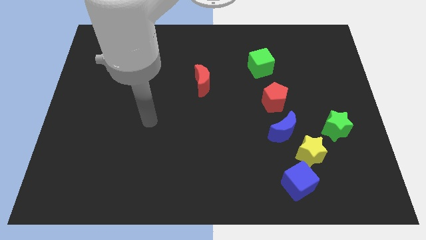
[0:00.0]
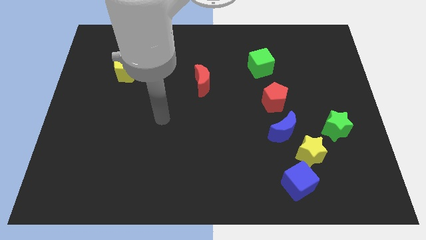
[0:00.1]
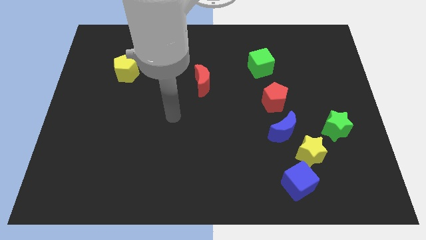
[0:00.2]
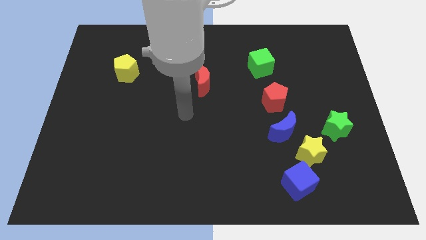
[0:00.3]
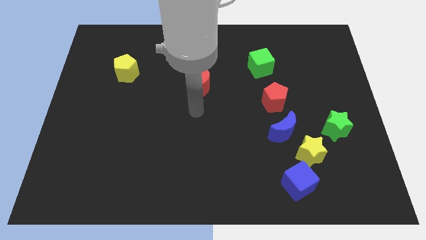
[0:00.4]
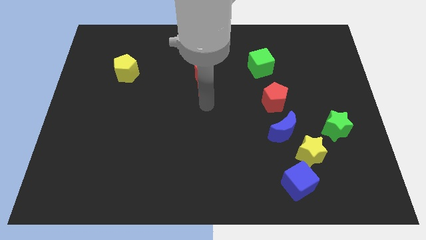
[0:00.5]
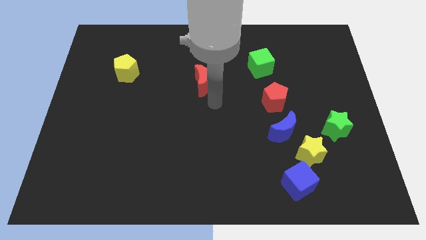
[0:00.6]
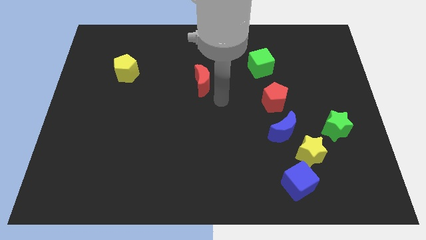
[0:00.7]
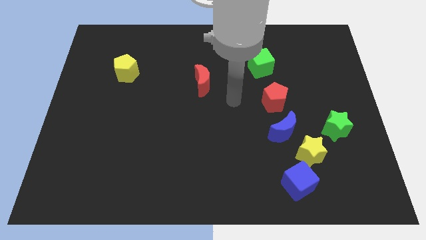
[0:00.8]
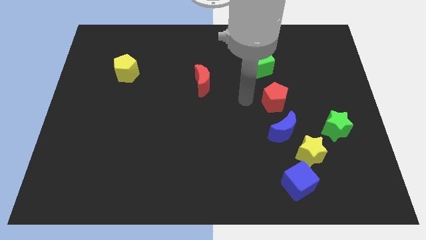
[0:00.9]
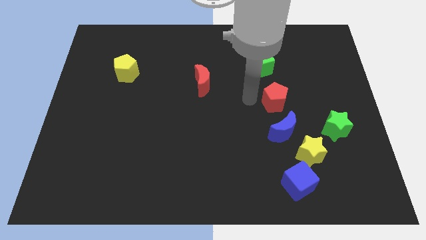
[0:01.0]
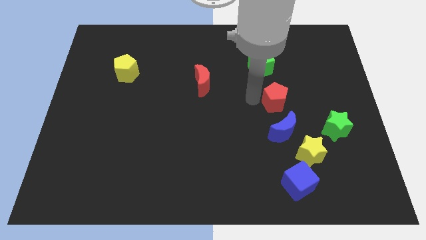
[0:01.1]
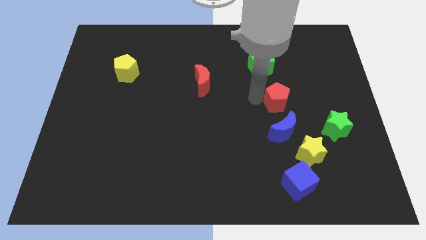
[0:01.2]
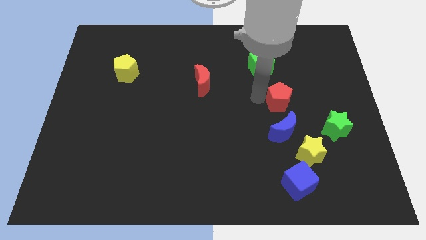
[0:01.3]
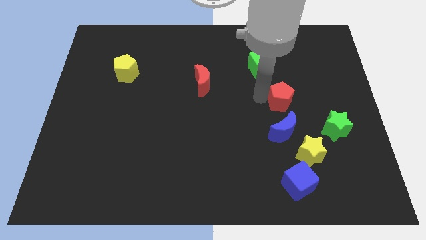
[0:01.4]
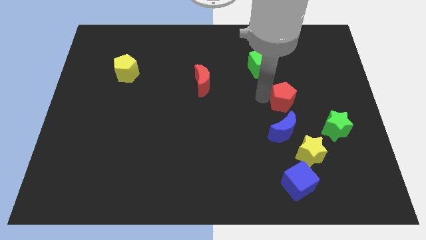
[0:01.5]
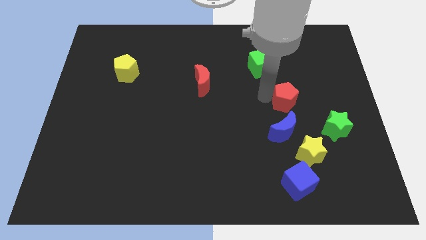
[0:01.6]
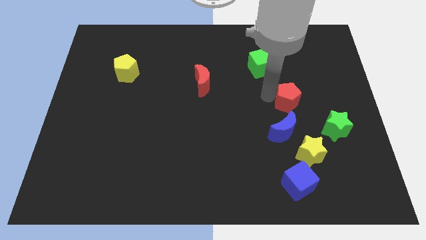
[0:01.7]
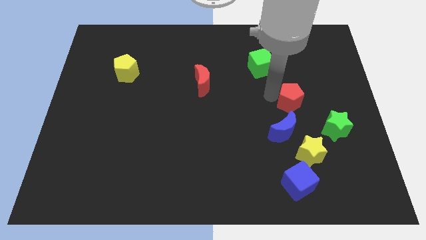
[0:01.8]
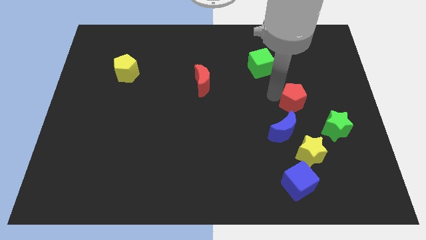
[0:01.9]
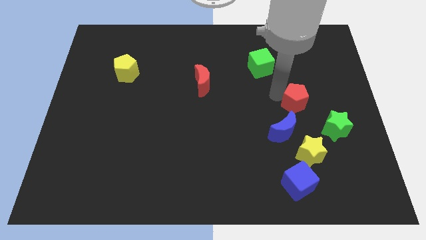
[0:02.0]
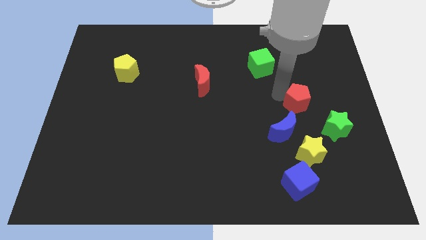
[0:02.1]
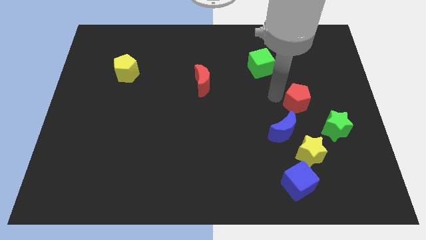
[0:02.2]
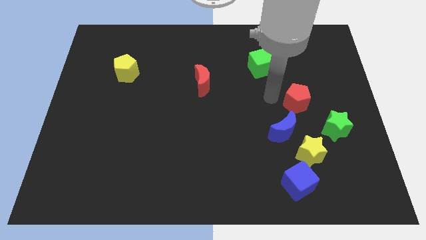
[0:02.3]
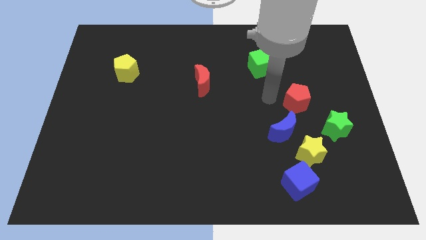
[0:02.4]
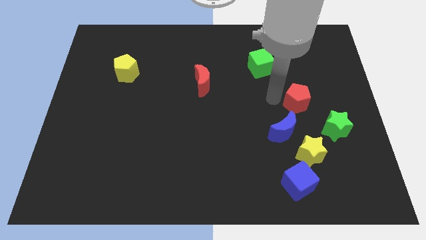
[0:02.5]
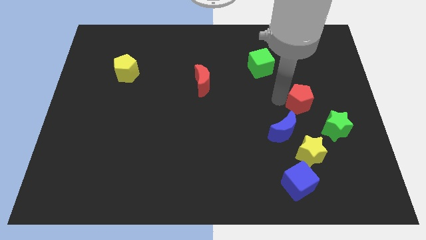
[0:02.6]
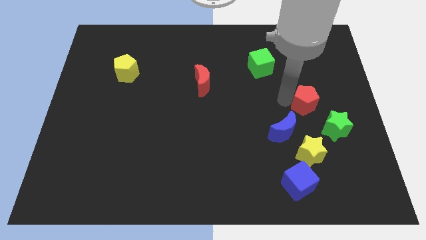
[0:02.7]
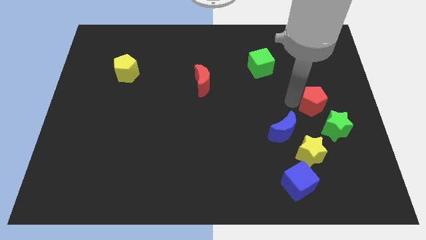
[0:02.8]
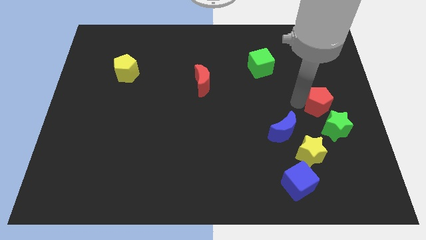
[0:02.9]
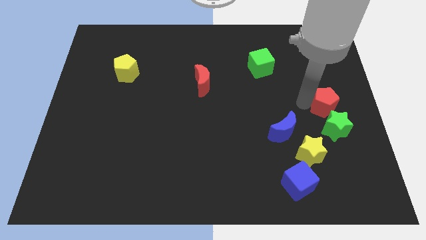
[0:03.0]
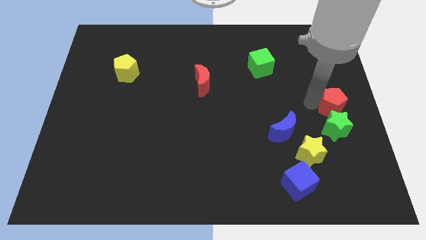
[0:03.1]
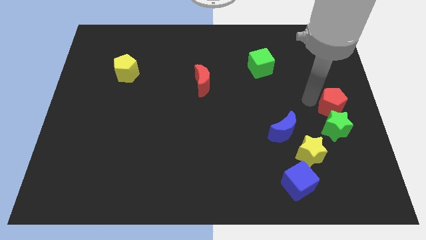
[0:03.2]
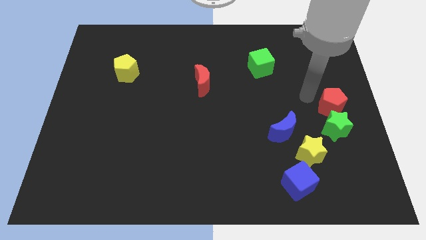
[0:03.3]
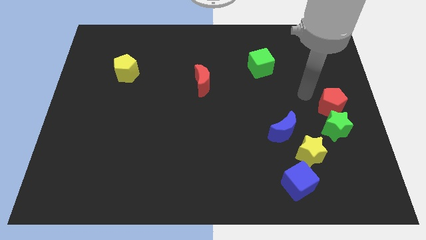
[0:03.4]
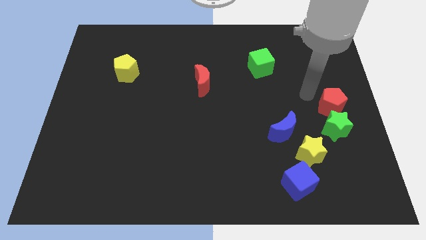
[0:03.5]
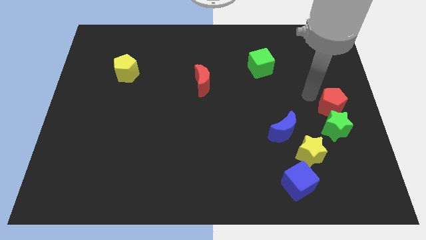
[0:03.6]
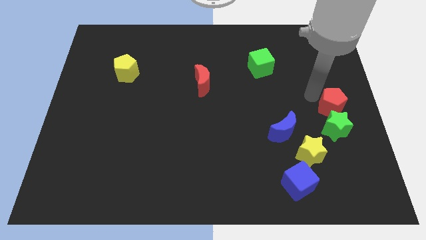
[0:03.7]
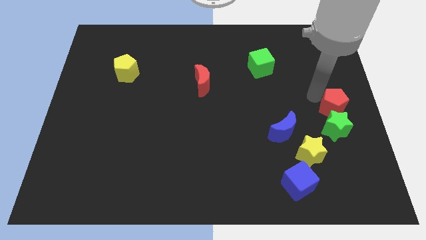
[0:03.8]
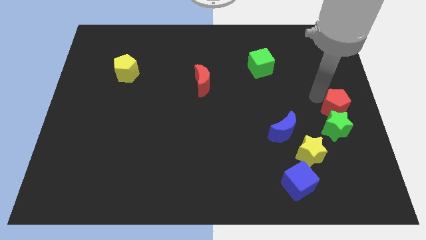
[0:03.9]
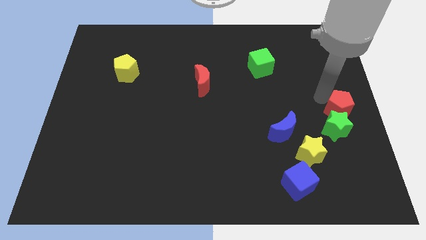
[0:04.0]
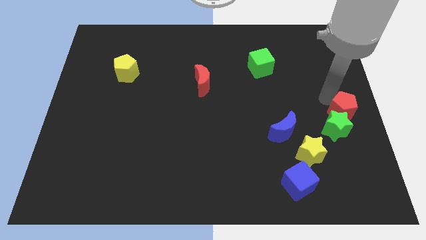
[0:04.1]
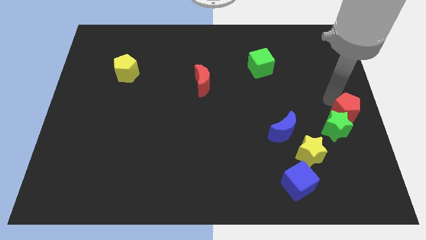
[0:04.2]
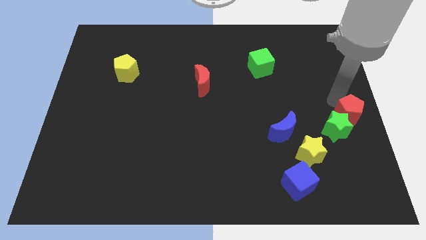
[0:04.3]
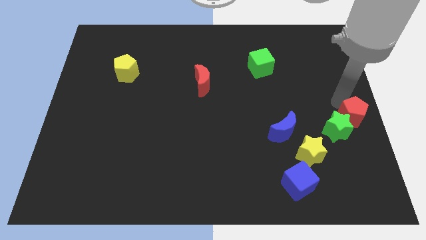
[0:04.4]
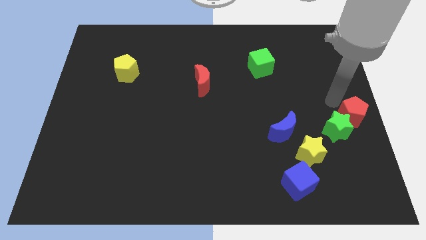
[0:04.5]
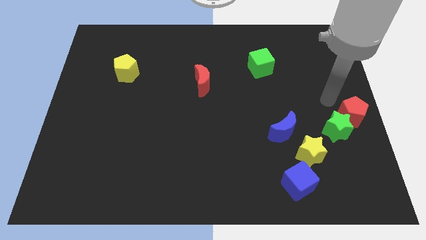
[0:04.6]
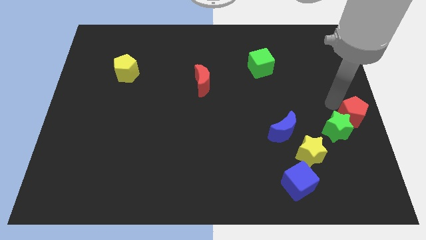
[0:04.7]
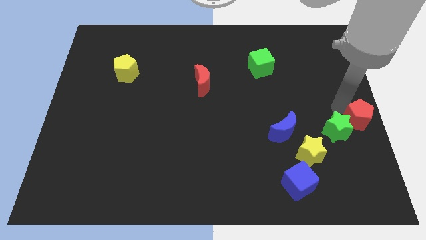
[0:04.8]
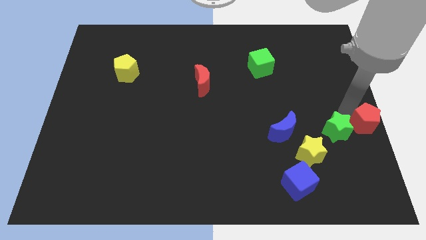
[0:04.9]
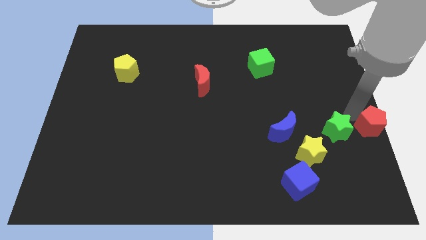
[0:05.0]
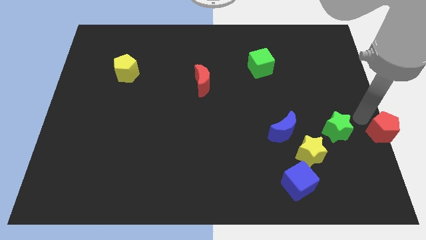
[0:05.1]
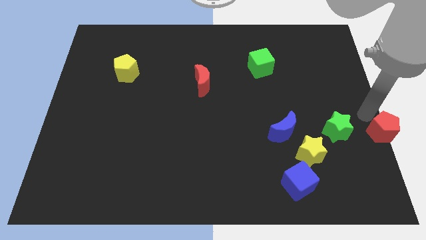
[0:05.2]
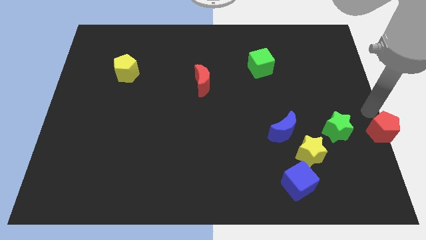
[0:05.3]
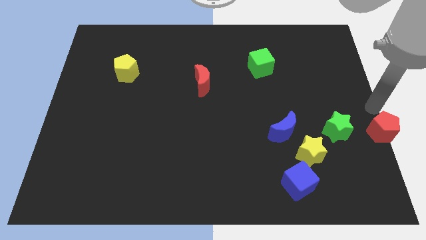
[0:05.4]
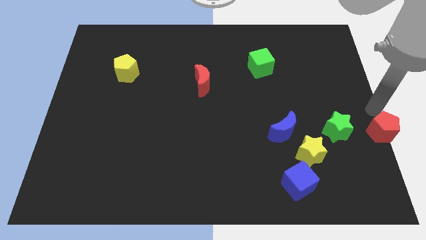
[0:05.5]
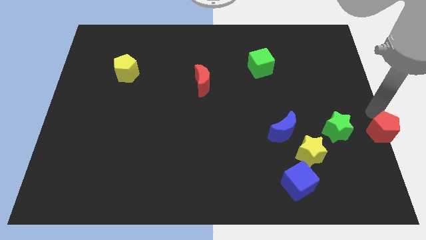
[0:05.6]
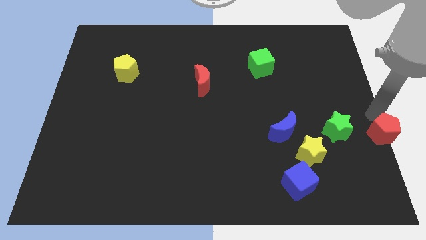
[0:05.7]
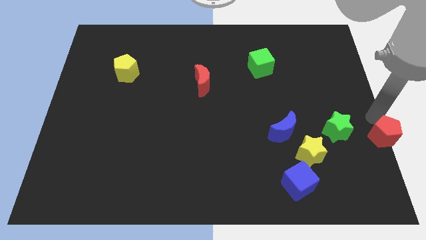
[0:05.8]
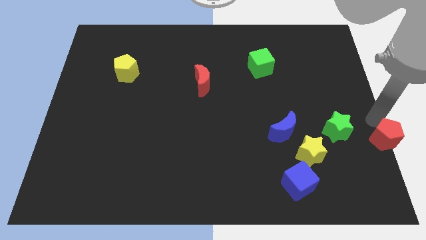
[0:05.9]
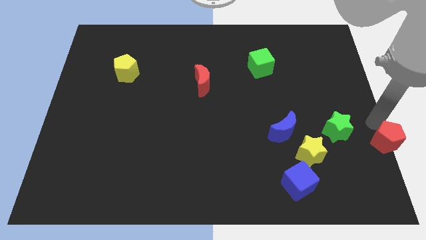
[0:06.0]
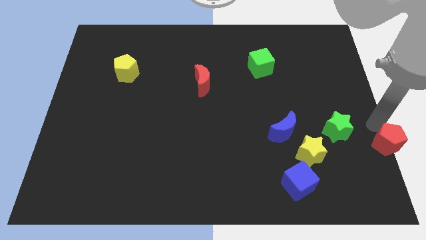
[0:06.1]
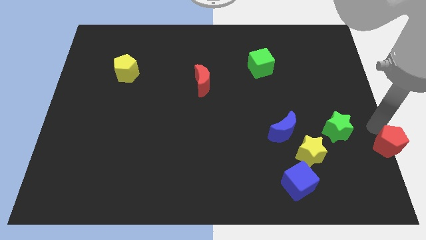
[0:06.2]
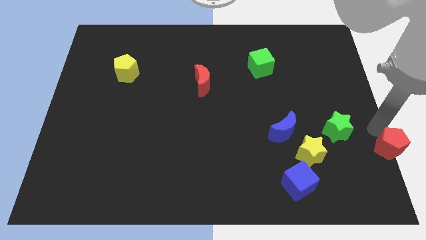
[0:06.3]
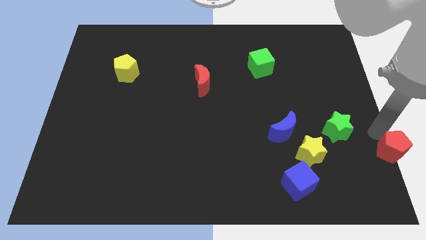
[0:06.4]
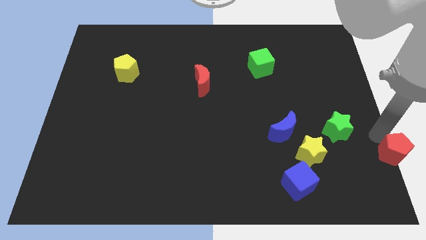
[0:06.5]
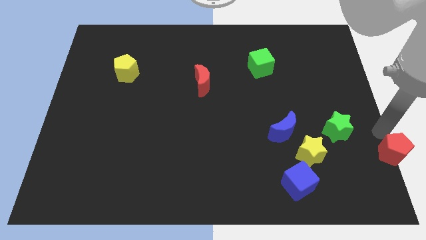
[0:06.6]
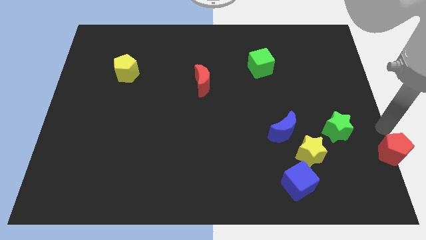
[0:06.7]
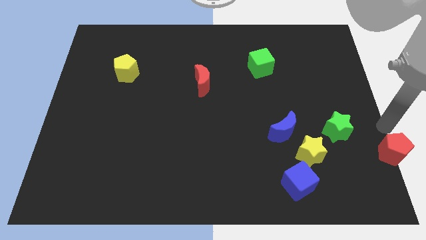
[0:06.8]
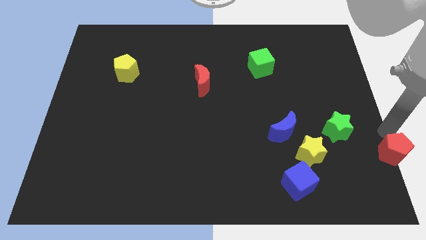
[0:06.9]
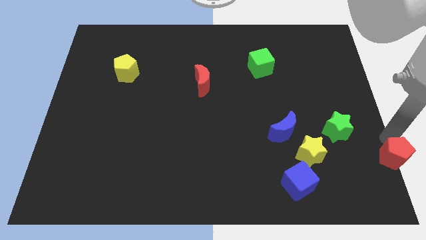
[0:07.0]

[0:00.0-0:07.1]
push the red pentagon to the bottom right

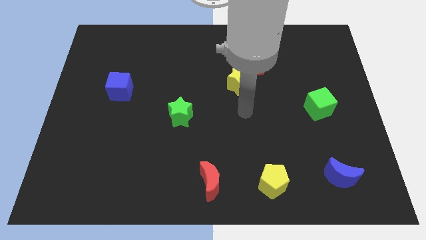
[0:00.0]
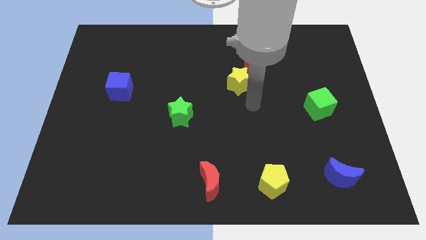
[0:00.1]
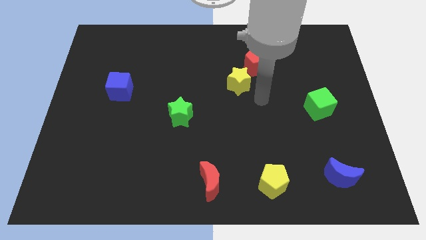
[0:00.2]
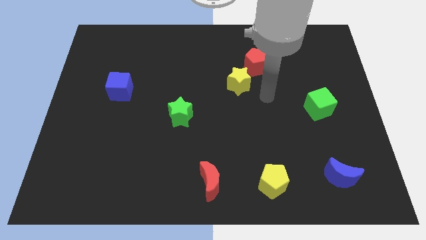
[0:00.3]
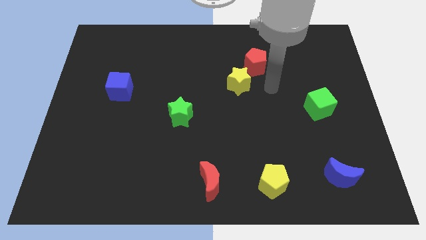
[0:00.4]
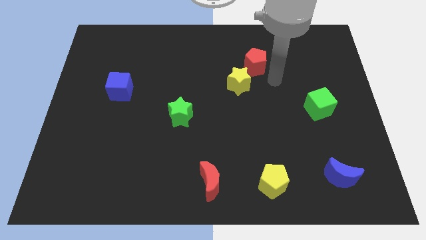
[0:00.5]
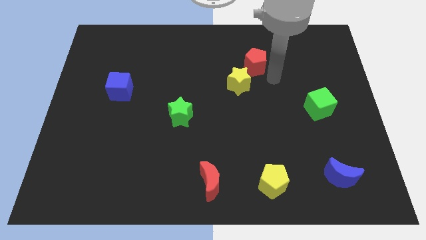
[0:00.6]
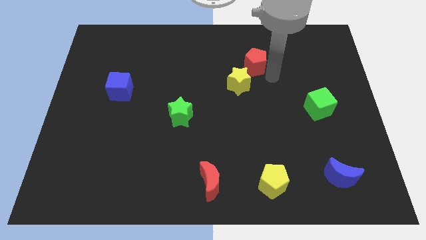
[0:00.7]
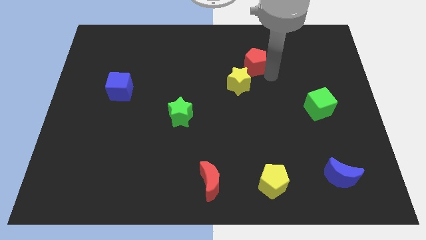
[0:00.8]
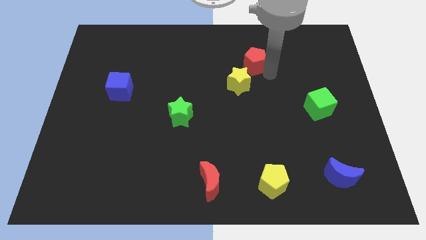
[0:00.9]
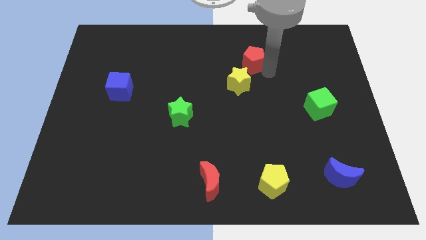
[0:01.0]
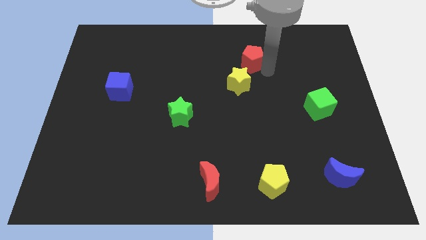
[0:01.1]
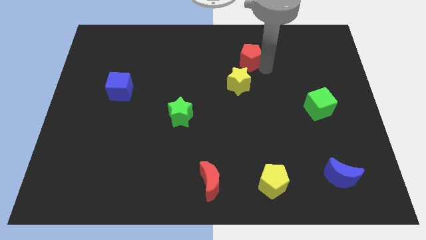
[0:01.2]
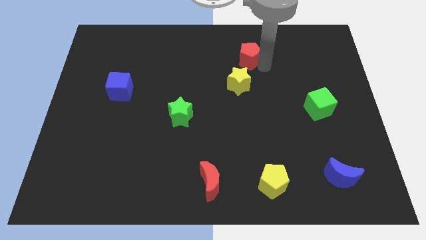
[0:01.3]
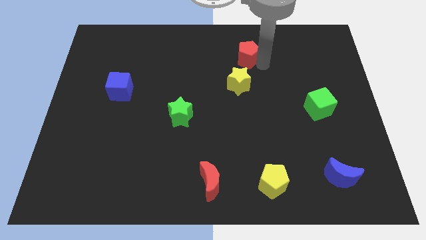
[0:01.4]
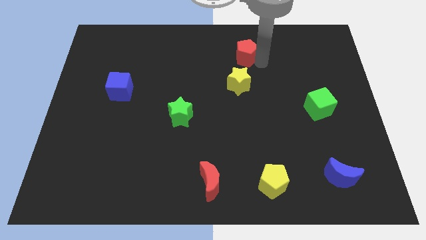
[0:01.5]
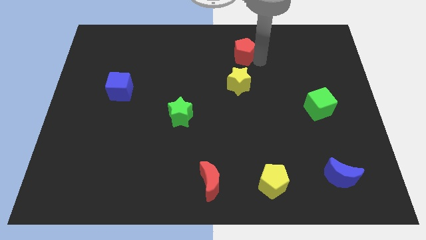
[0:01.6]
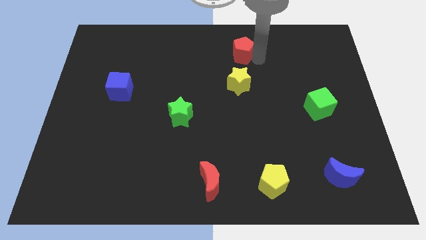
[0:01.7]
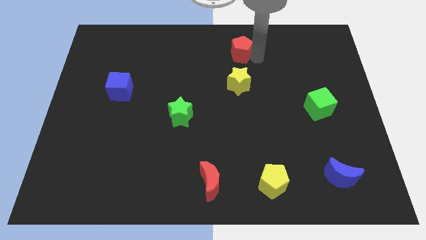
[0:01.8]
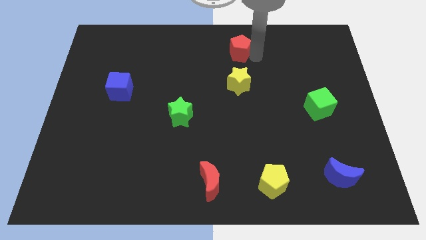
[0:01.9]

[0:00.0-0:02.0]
push the red pentagon to the top
